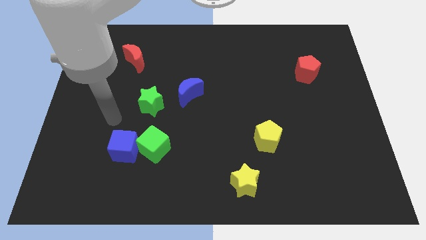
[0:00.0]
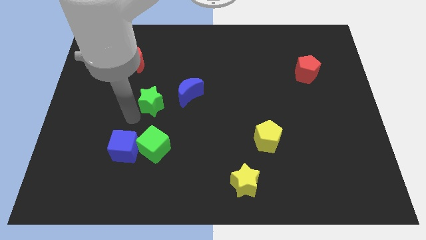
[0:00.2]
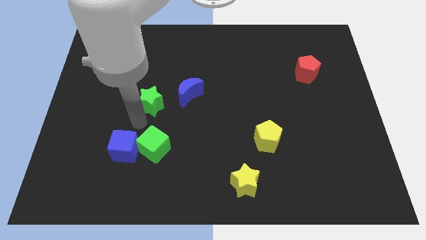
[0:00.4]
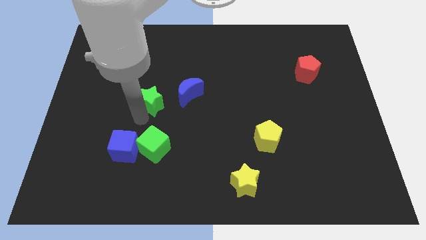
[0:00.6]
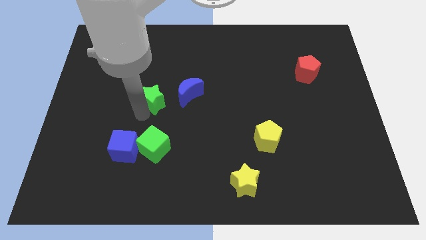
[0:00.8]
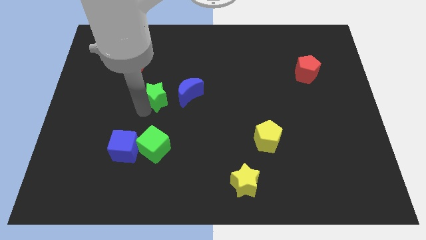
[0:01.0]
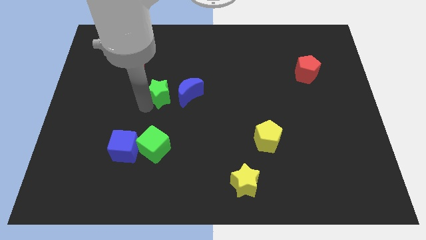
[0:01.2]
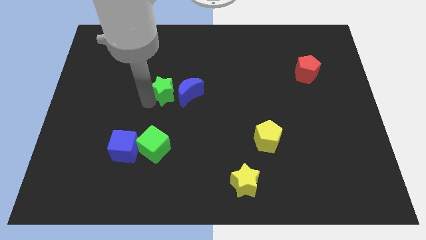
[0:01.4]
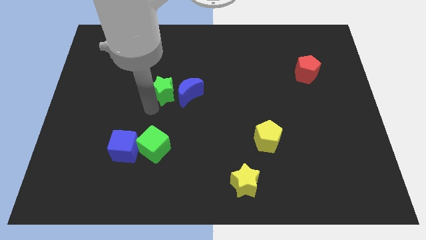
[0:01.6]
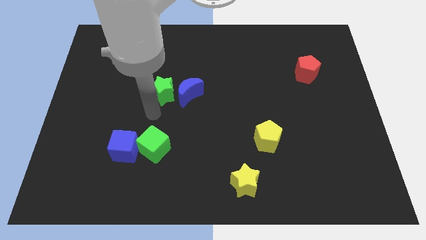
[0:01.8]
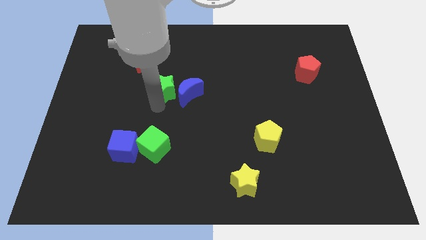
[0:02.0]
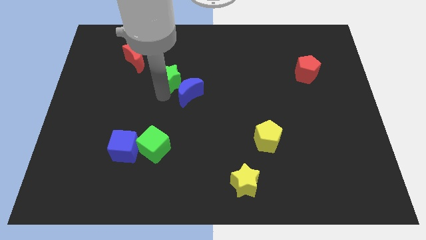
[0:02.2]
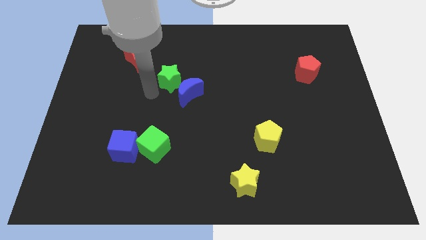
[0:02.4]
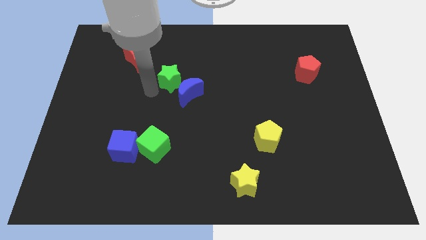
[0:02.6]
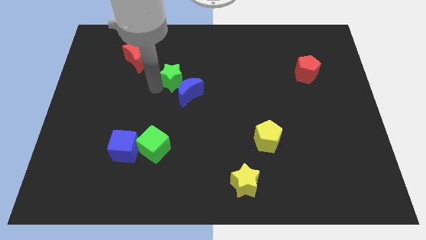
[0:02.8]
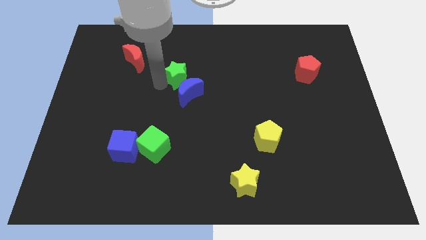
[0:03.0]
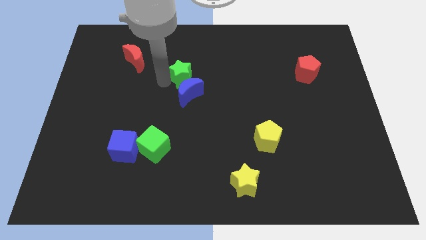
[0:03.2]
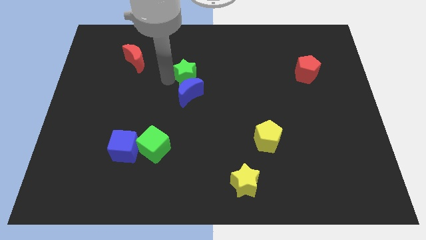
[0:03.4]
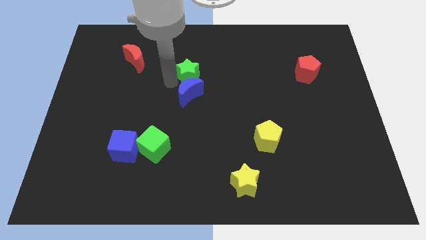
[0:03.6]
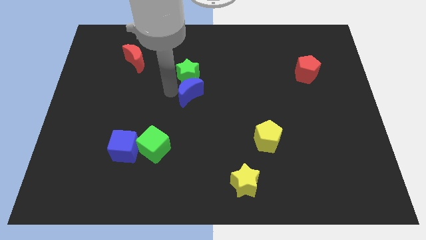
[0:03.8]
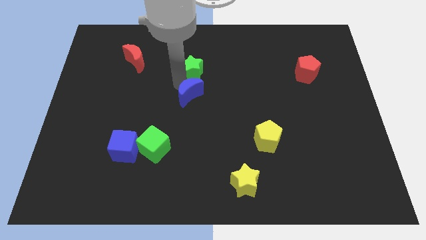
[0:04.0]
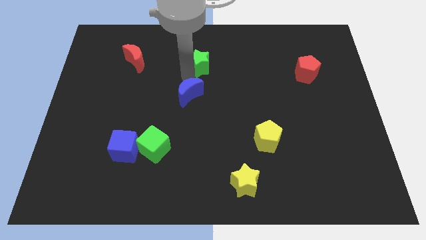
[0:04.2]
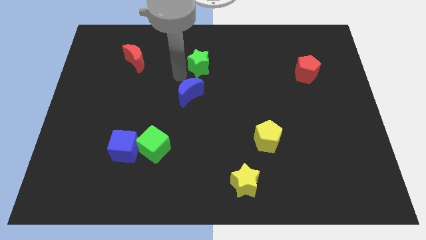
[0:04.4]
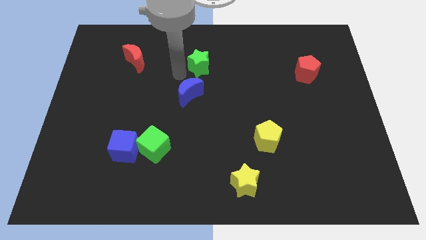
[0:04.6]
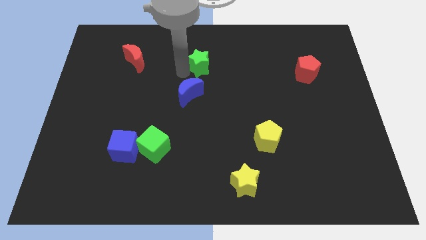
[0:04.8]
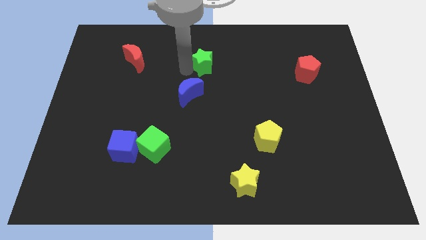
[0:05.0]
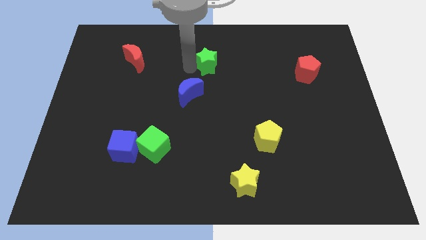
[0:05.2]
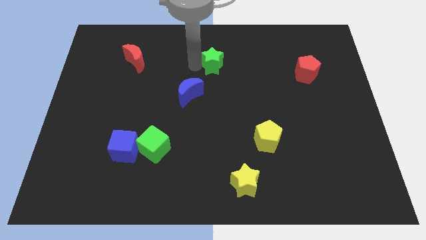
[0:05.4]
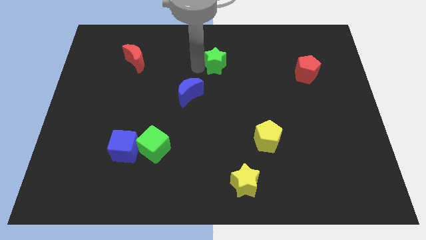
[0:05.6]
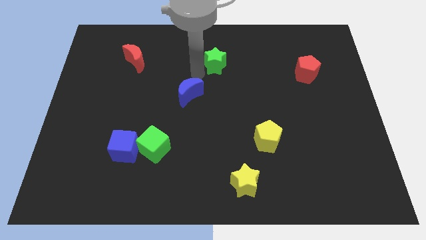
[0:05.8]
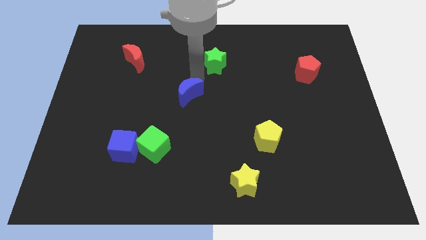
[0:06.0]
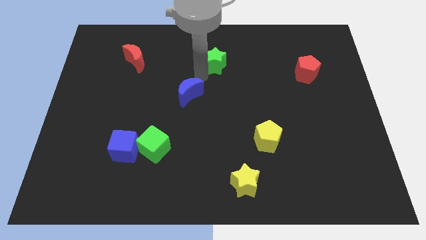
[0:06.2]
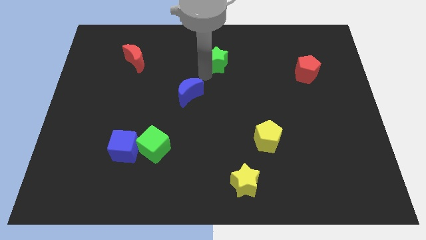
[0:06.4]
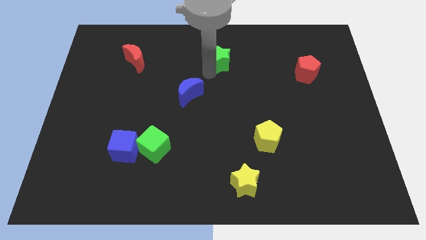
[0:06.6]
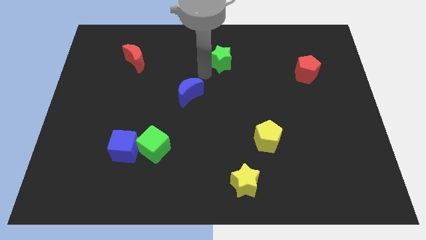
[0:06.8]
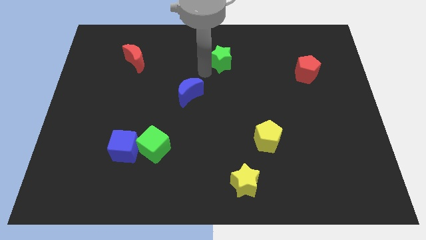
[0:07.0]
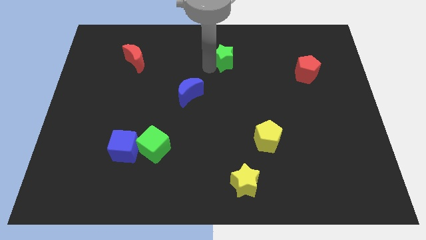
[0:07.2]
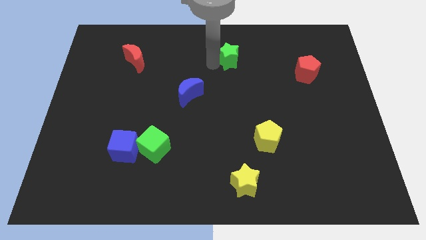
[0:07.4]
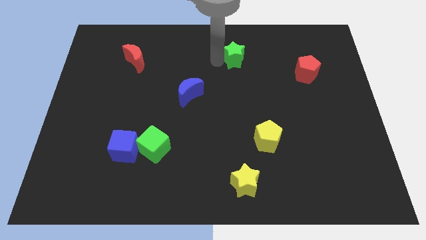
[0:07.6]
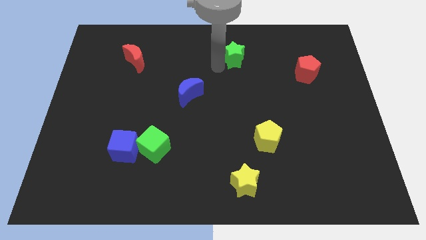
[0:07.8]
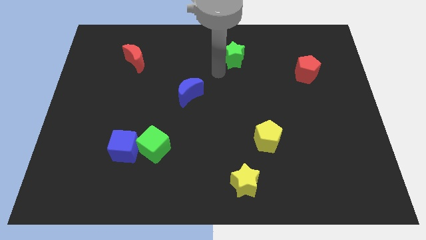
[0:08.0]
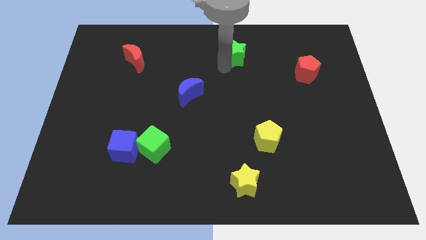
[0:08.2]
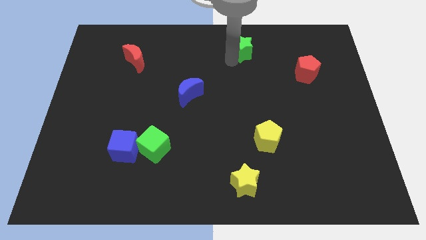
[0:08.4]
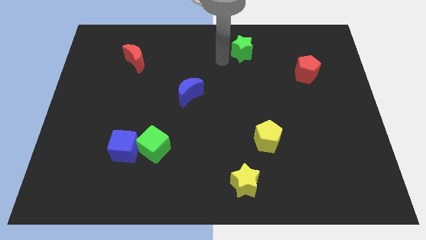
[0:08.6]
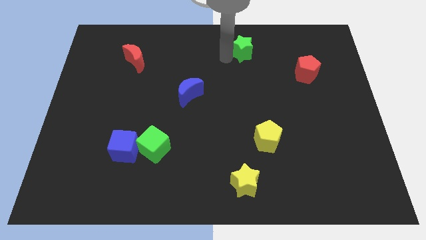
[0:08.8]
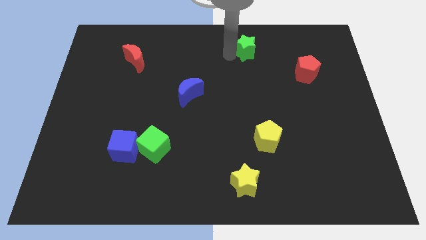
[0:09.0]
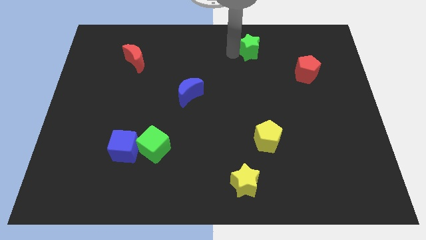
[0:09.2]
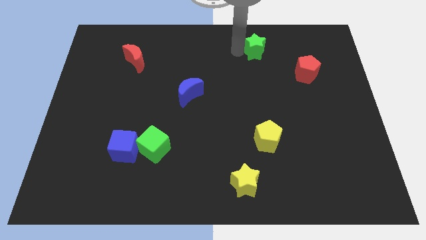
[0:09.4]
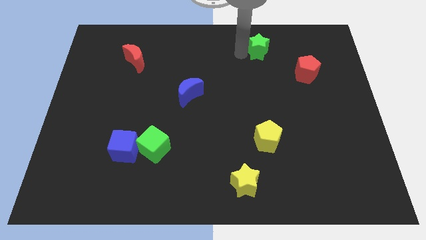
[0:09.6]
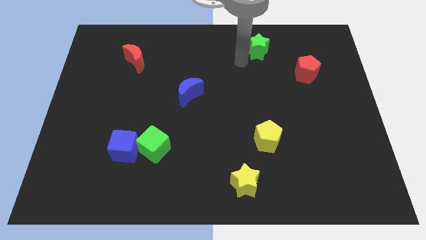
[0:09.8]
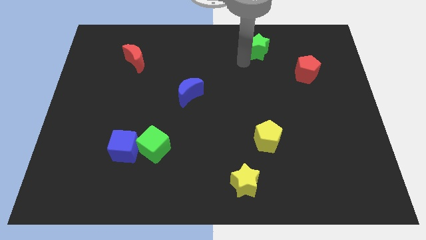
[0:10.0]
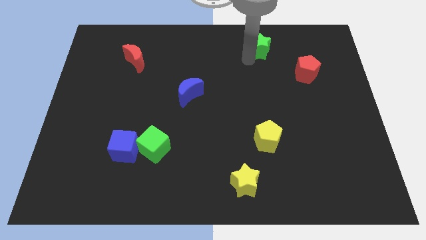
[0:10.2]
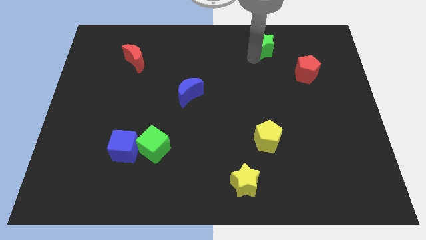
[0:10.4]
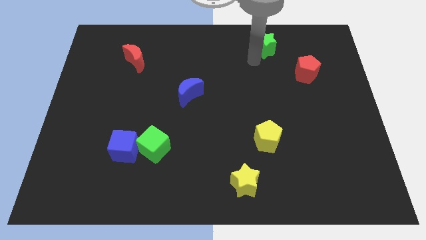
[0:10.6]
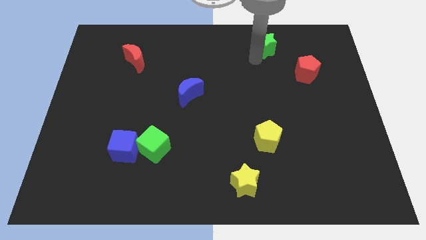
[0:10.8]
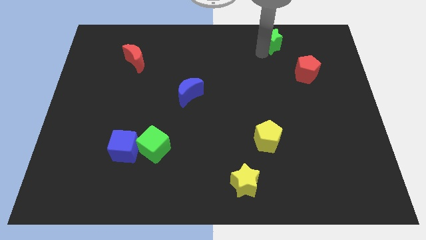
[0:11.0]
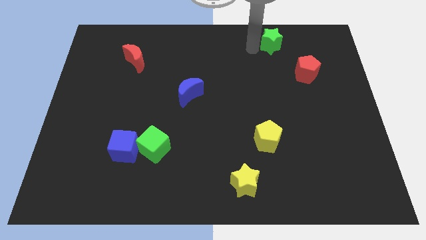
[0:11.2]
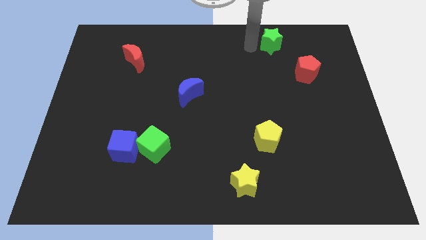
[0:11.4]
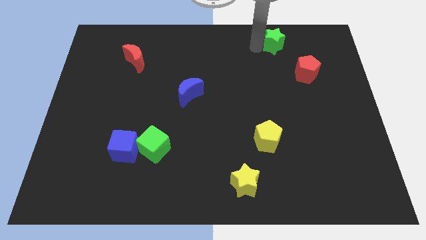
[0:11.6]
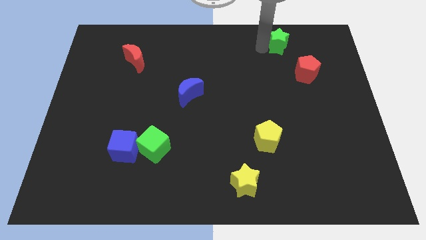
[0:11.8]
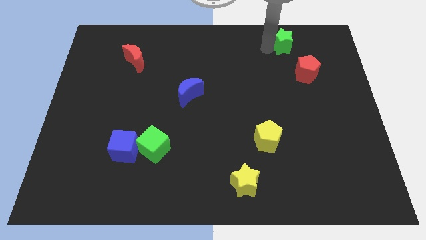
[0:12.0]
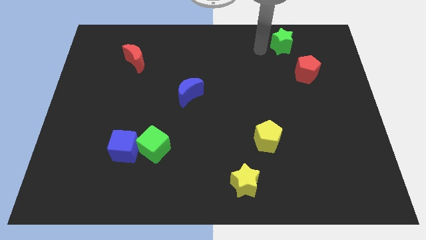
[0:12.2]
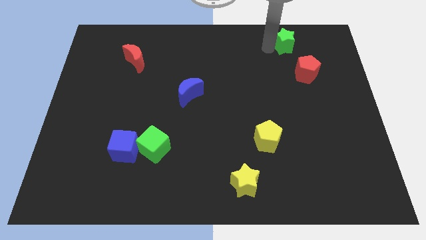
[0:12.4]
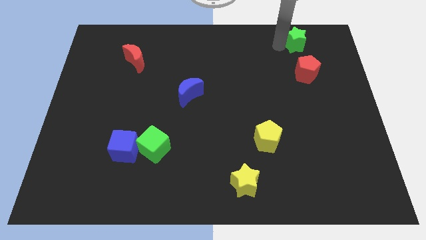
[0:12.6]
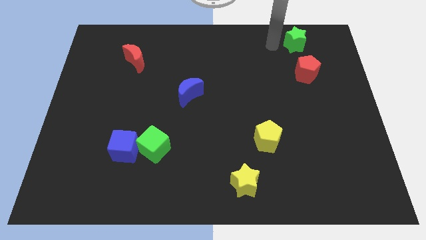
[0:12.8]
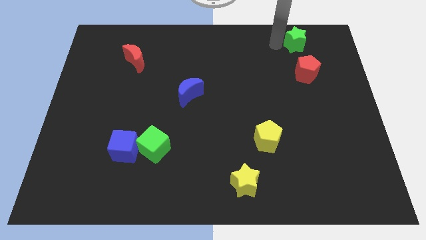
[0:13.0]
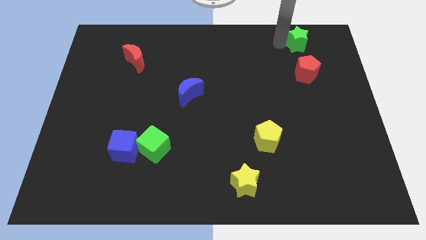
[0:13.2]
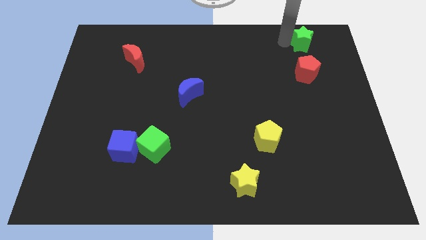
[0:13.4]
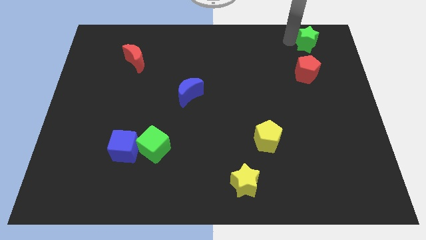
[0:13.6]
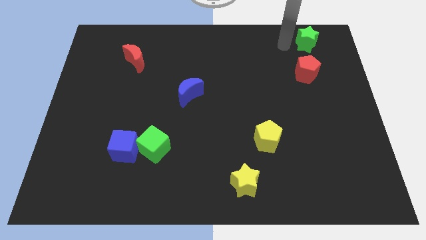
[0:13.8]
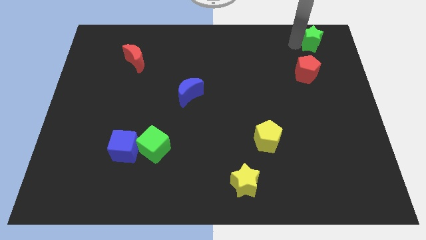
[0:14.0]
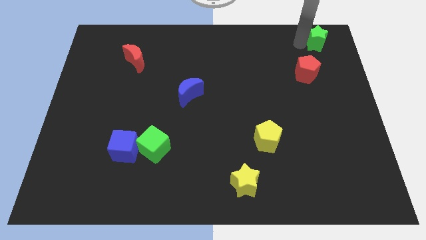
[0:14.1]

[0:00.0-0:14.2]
push the green star to the top right of the board
